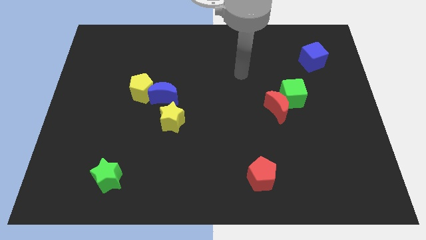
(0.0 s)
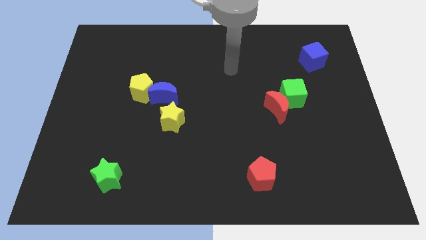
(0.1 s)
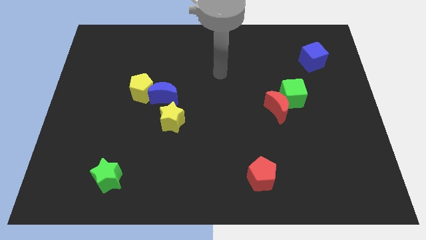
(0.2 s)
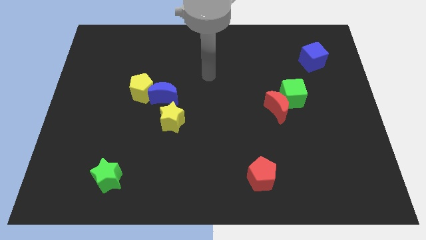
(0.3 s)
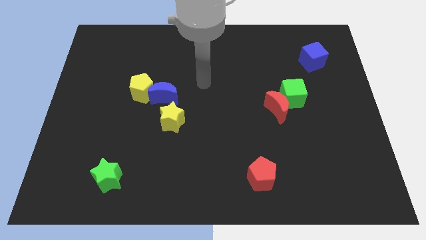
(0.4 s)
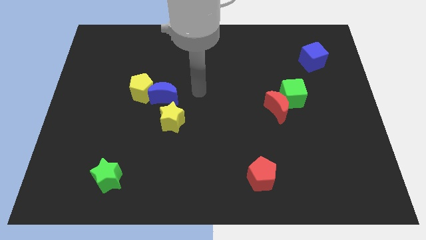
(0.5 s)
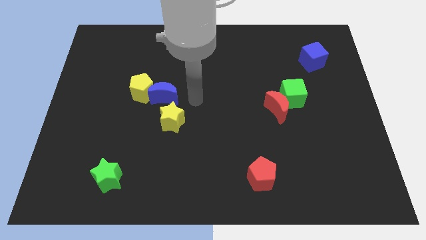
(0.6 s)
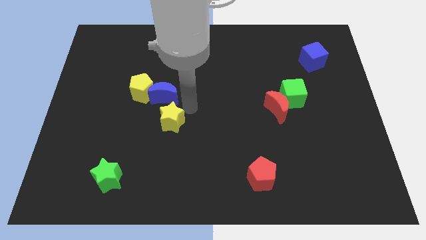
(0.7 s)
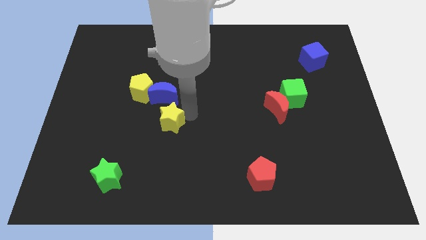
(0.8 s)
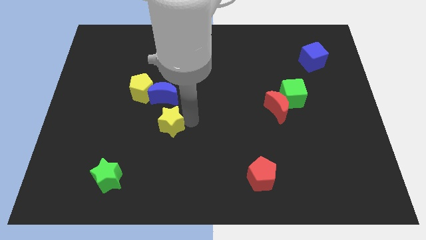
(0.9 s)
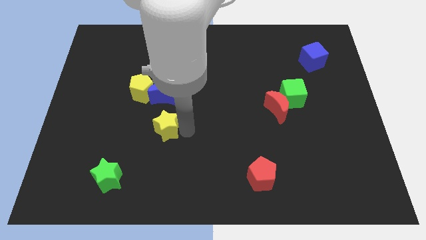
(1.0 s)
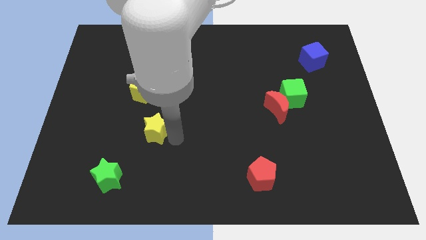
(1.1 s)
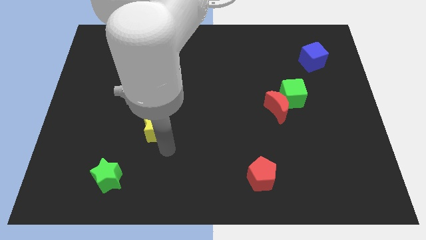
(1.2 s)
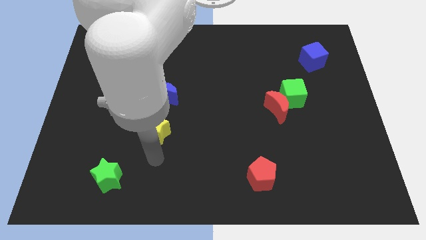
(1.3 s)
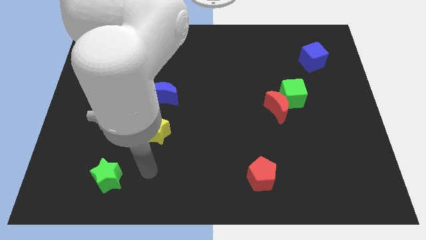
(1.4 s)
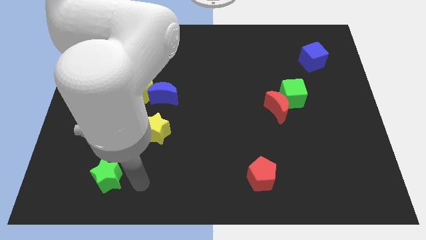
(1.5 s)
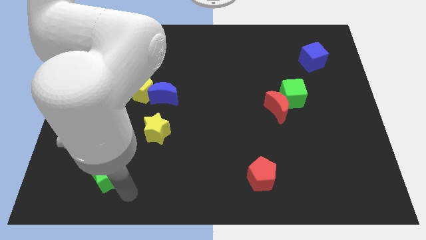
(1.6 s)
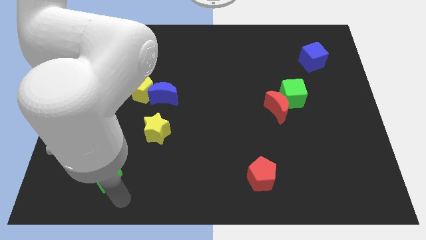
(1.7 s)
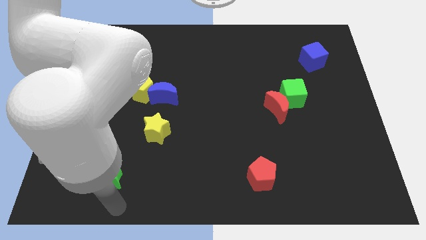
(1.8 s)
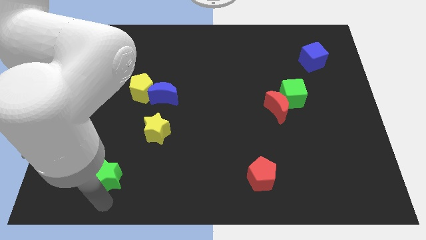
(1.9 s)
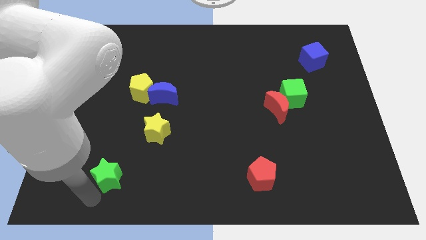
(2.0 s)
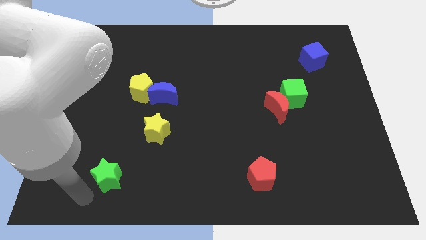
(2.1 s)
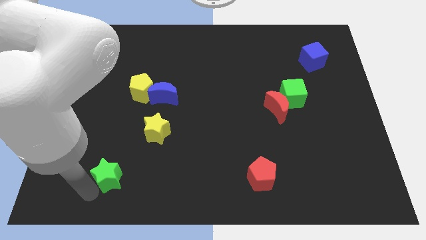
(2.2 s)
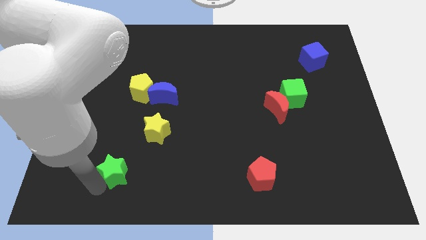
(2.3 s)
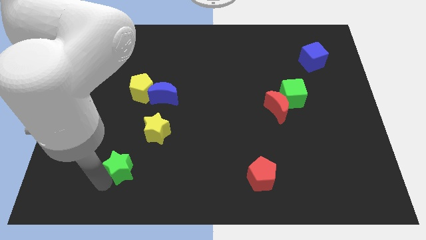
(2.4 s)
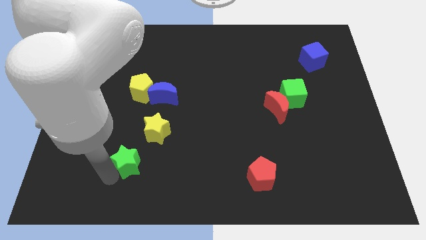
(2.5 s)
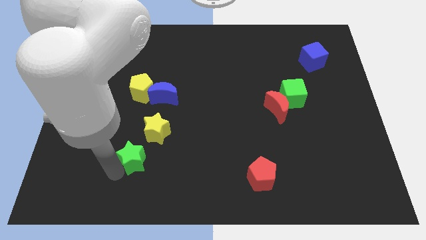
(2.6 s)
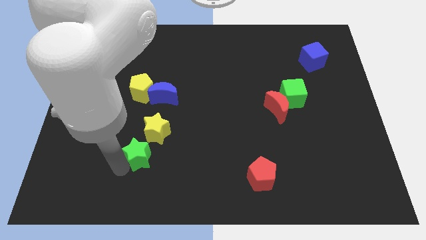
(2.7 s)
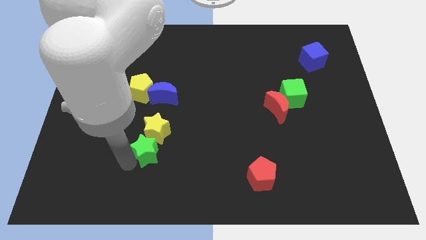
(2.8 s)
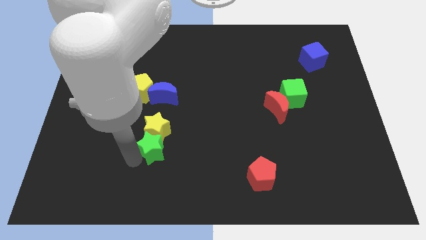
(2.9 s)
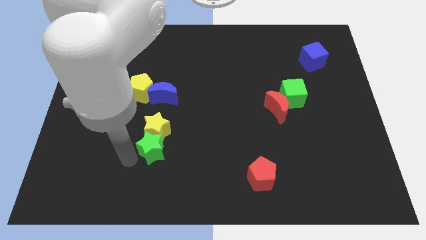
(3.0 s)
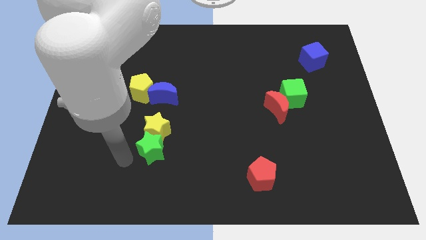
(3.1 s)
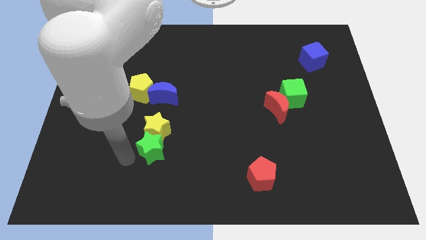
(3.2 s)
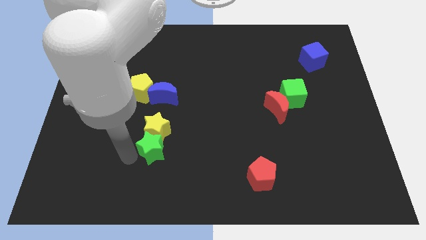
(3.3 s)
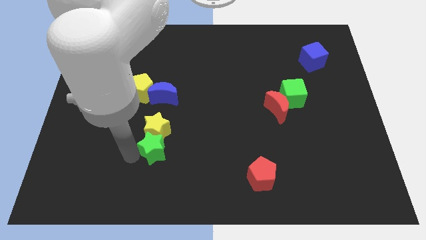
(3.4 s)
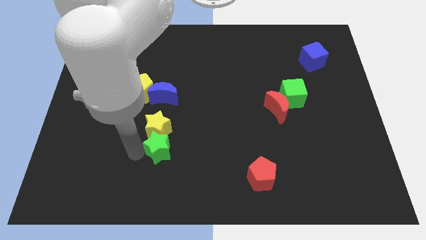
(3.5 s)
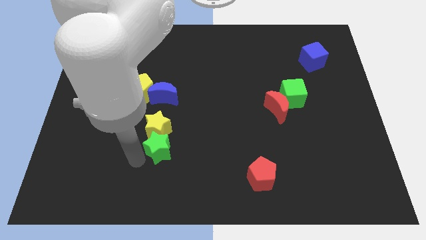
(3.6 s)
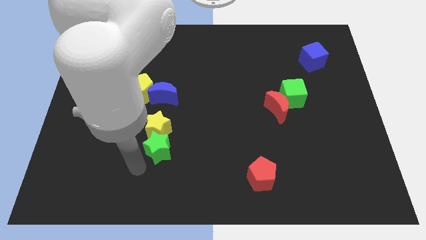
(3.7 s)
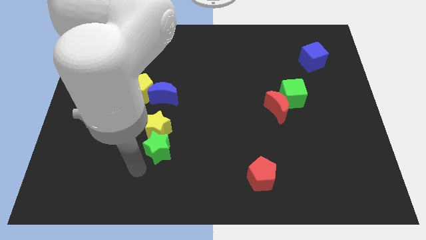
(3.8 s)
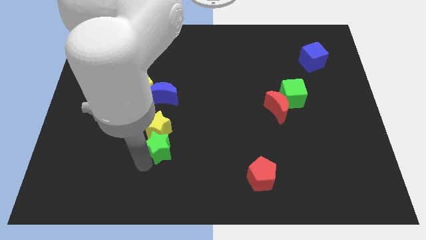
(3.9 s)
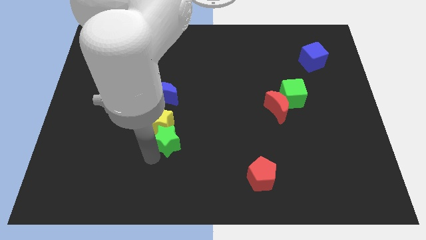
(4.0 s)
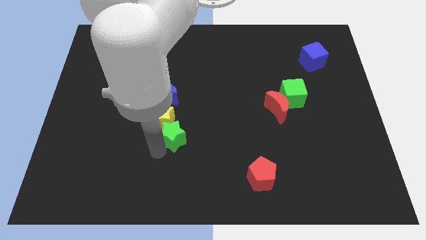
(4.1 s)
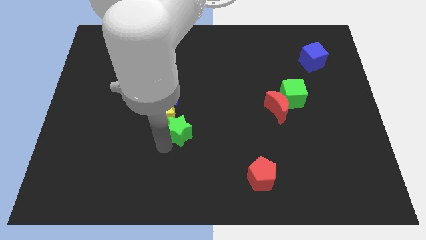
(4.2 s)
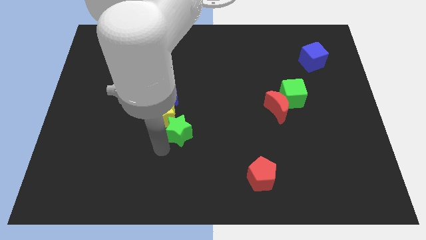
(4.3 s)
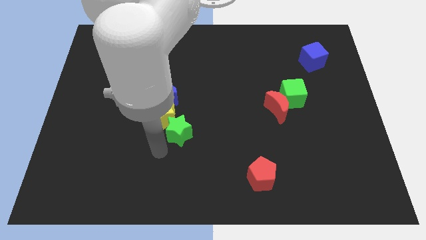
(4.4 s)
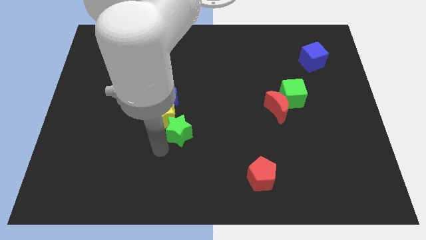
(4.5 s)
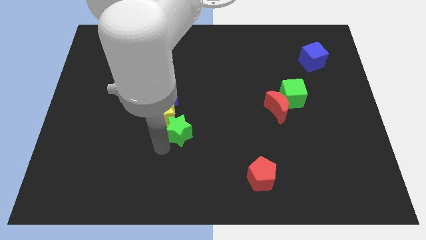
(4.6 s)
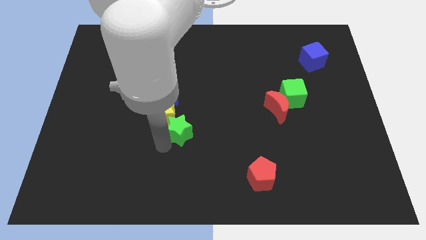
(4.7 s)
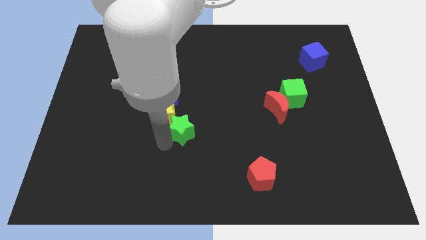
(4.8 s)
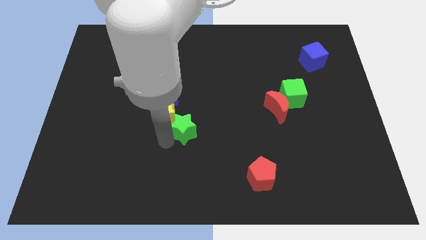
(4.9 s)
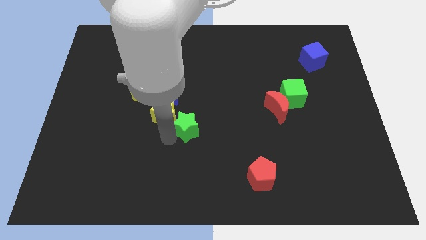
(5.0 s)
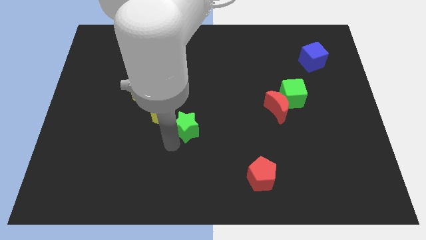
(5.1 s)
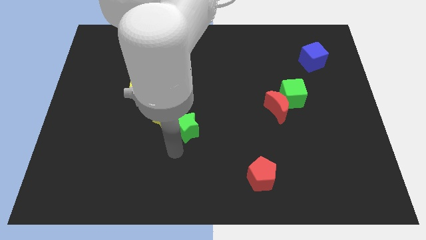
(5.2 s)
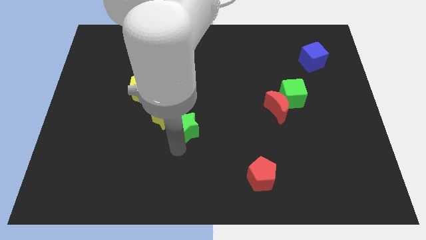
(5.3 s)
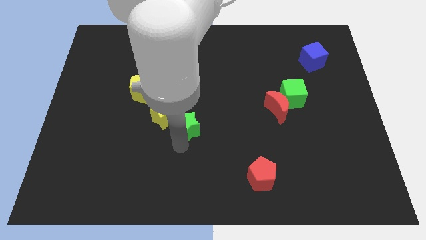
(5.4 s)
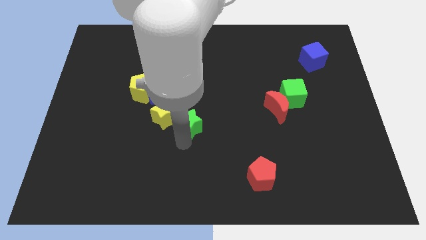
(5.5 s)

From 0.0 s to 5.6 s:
move the green star up and then right

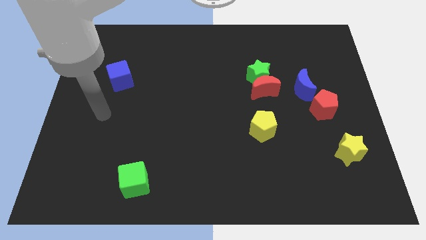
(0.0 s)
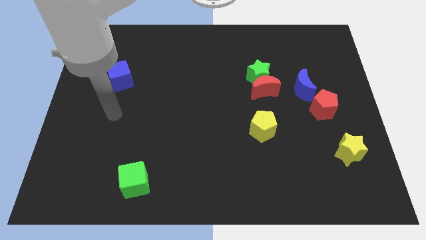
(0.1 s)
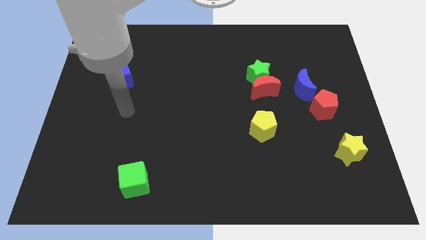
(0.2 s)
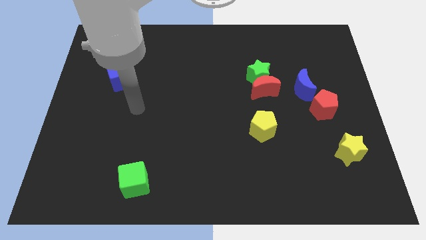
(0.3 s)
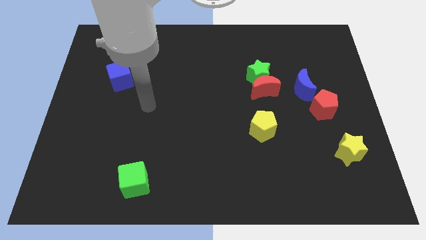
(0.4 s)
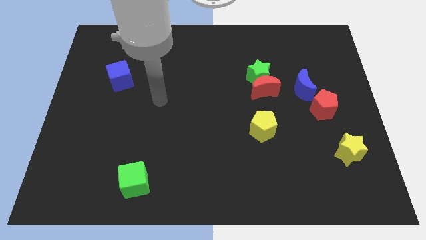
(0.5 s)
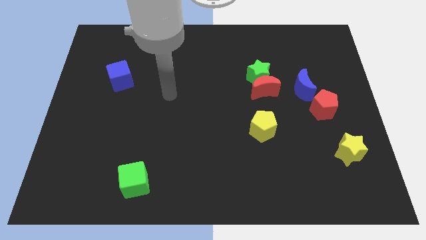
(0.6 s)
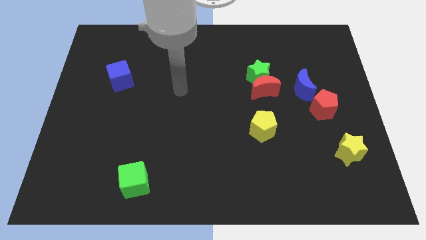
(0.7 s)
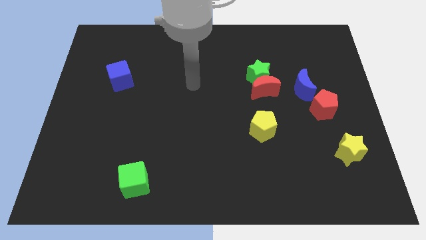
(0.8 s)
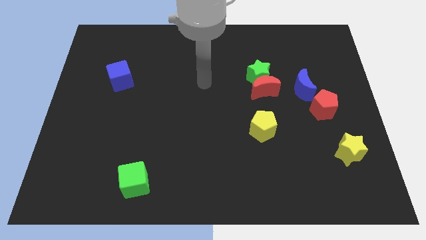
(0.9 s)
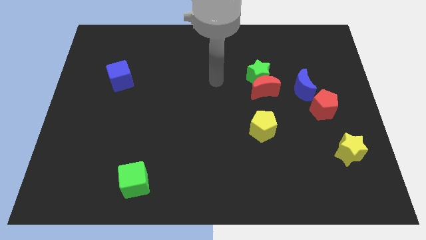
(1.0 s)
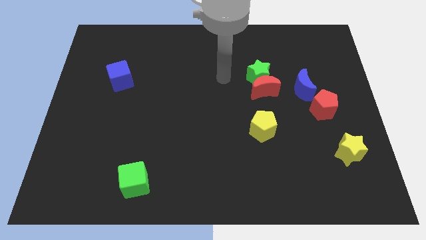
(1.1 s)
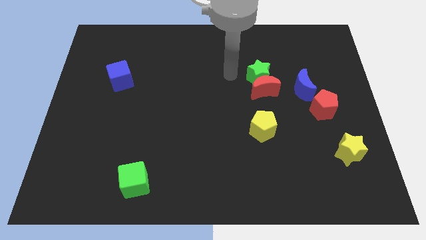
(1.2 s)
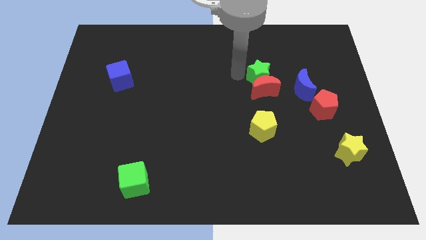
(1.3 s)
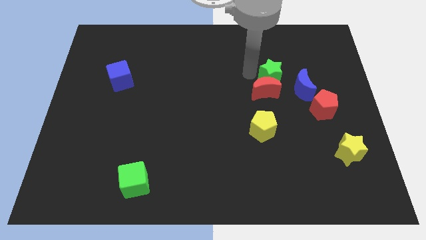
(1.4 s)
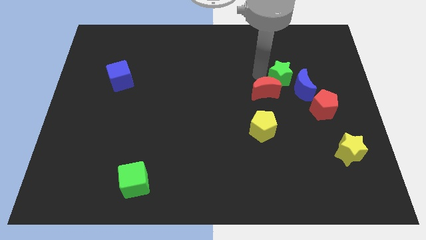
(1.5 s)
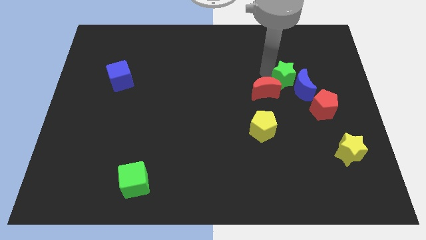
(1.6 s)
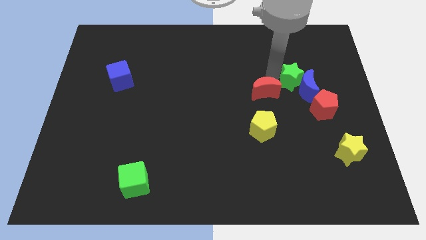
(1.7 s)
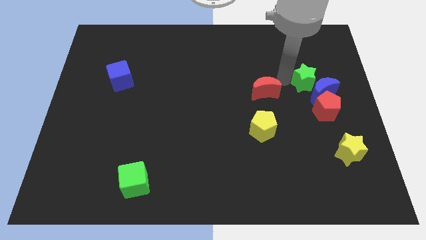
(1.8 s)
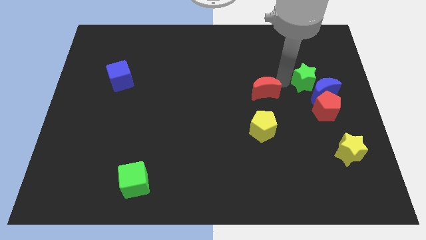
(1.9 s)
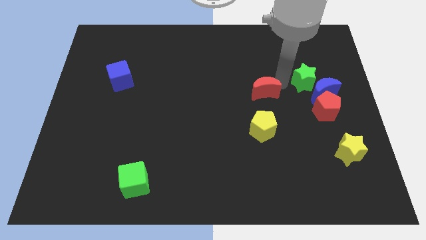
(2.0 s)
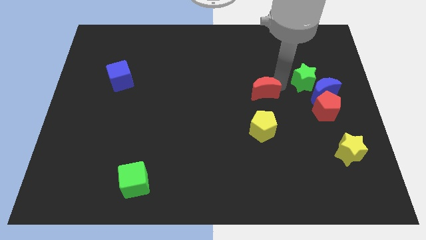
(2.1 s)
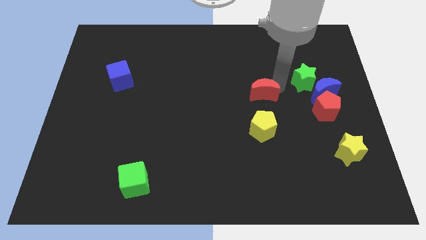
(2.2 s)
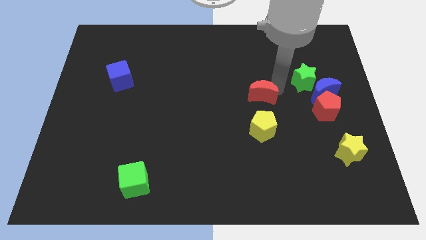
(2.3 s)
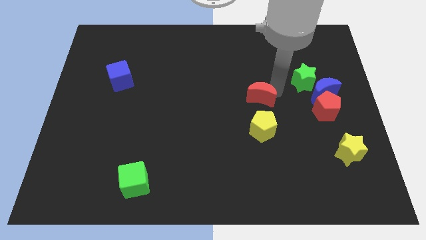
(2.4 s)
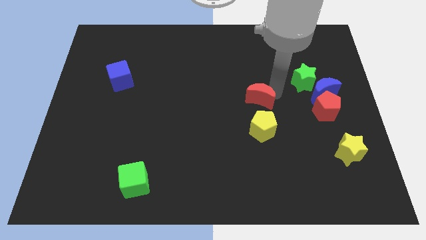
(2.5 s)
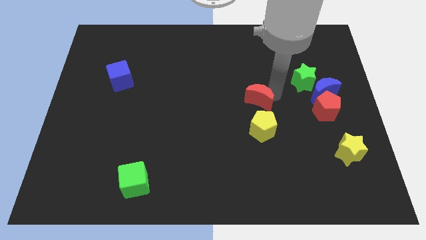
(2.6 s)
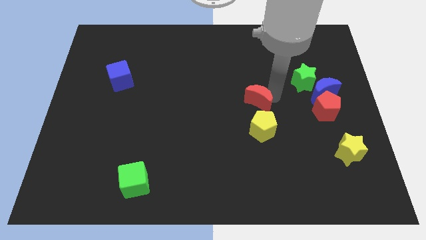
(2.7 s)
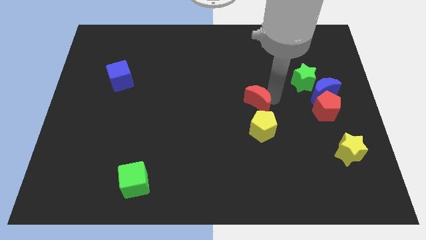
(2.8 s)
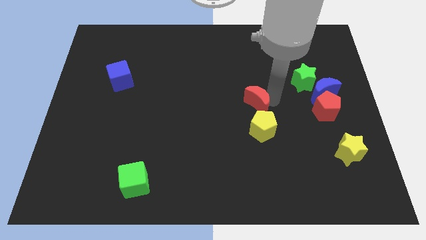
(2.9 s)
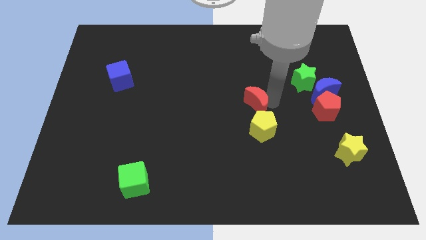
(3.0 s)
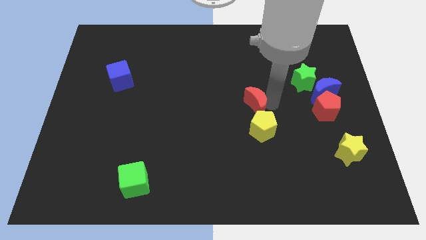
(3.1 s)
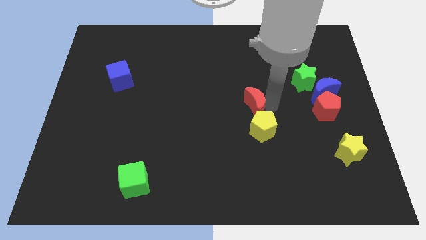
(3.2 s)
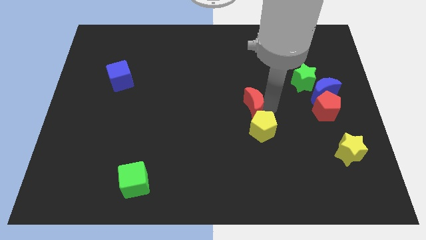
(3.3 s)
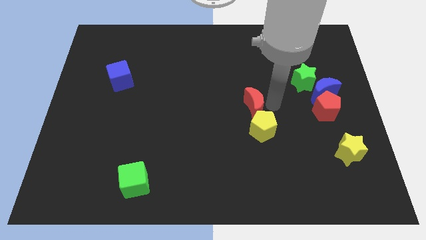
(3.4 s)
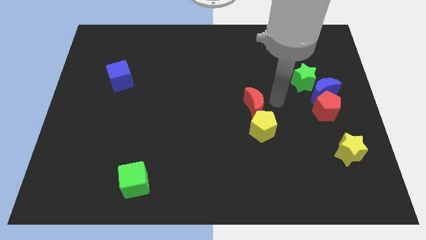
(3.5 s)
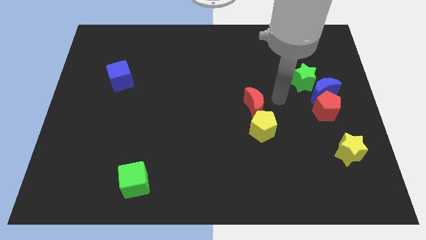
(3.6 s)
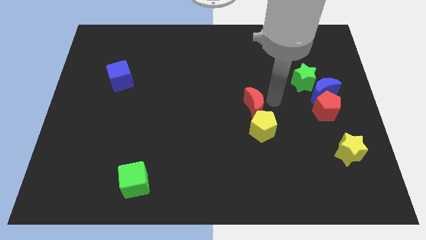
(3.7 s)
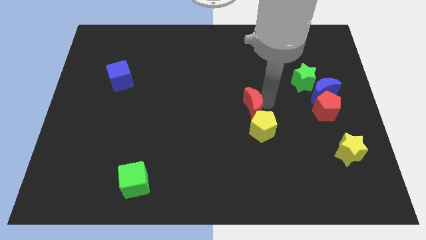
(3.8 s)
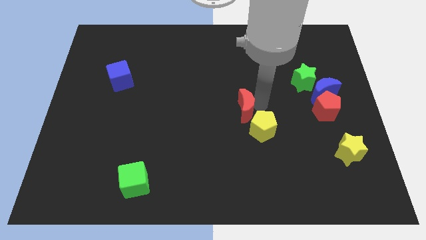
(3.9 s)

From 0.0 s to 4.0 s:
push the red moon down and to the left slightly
